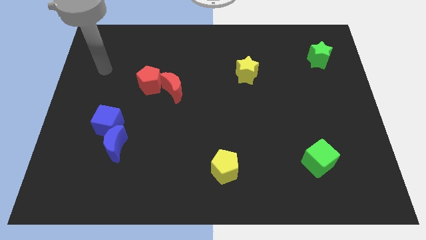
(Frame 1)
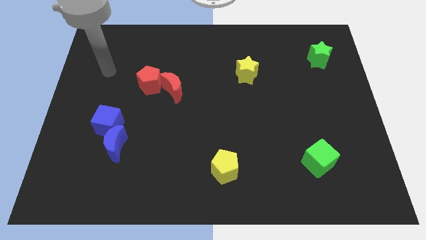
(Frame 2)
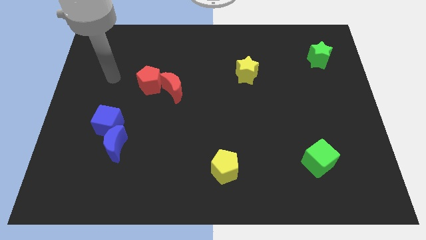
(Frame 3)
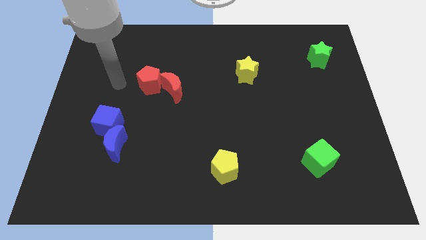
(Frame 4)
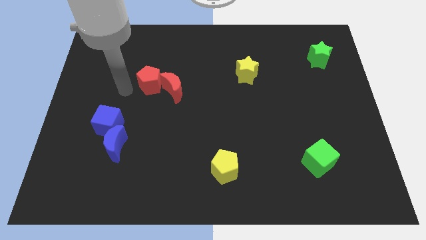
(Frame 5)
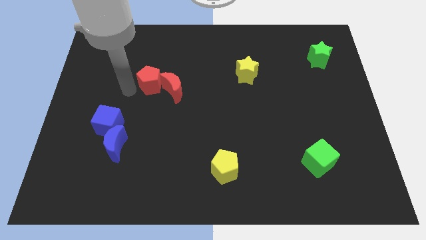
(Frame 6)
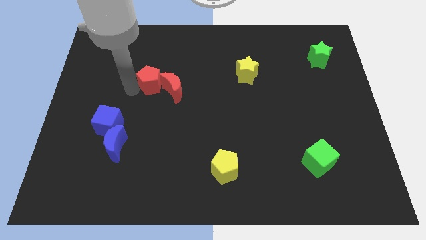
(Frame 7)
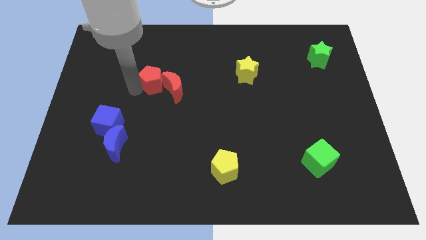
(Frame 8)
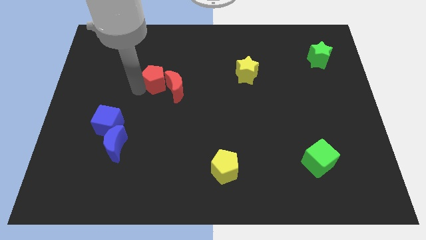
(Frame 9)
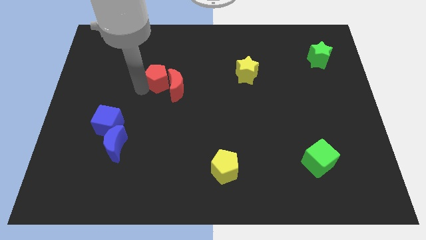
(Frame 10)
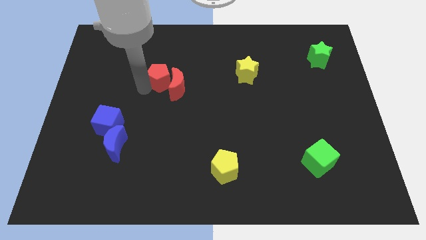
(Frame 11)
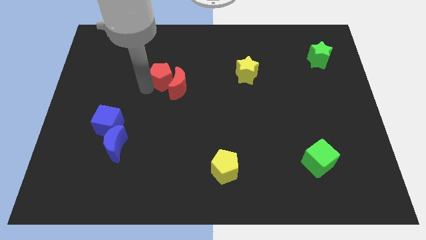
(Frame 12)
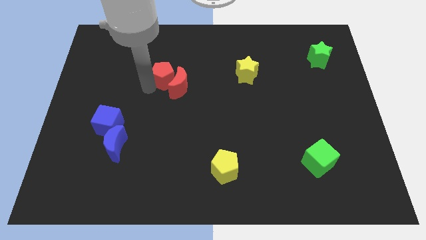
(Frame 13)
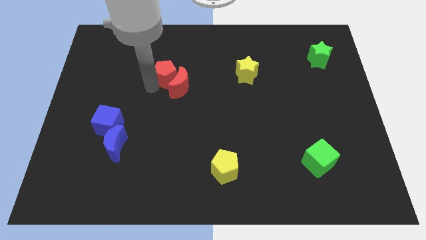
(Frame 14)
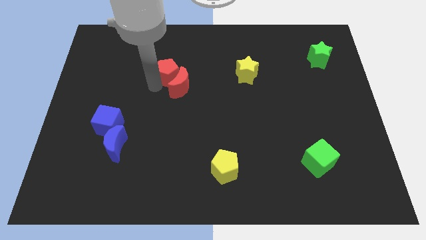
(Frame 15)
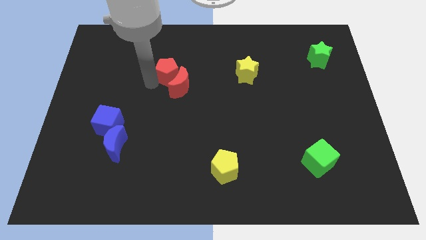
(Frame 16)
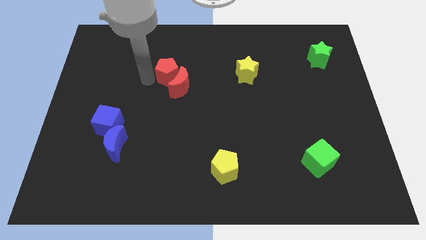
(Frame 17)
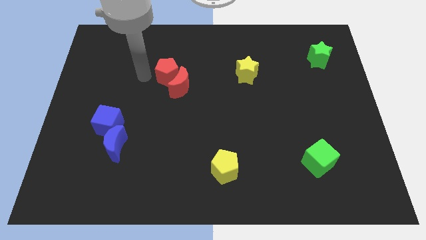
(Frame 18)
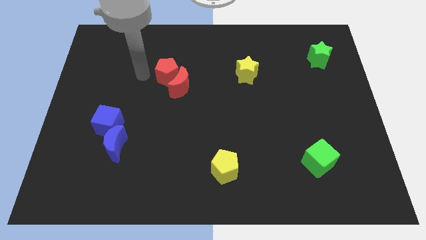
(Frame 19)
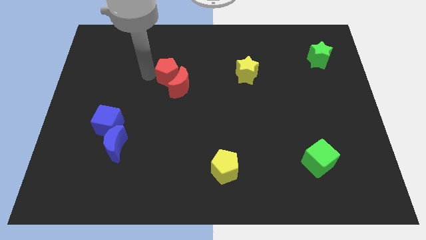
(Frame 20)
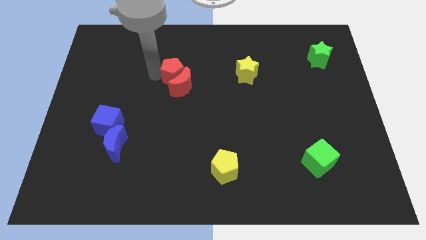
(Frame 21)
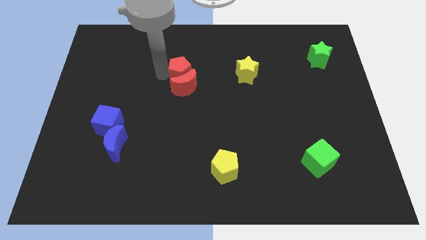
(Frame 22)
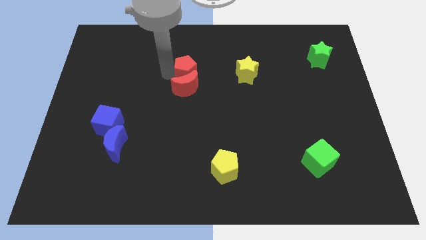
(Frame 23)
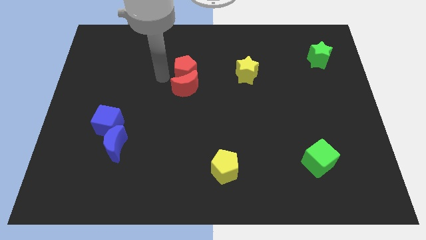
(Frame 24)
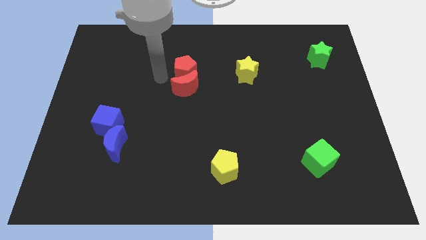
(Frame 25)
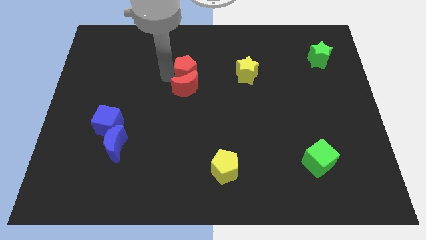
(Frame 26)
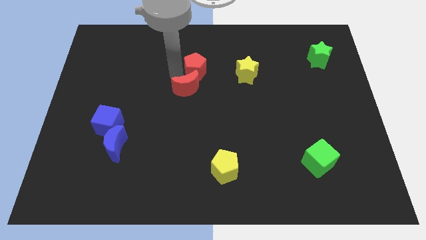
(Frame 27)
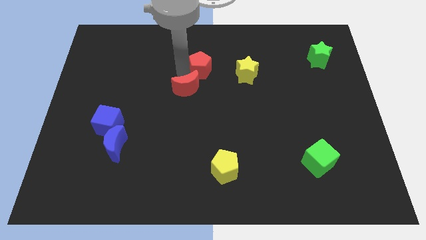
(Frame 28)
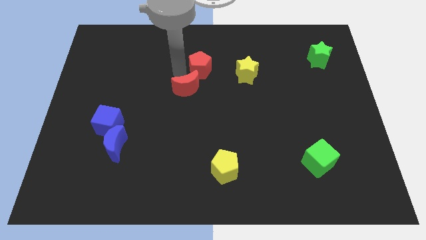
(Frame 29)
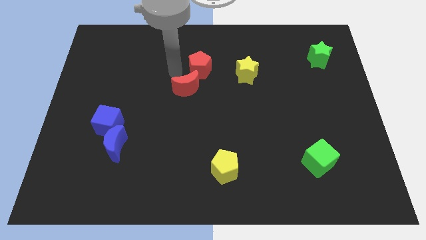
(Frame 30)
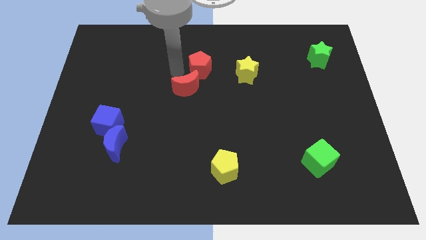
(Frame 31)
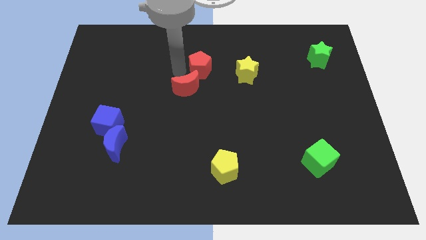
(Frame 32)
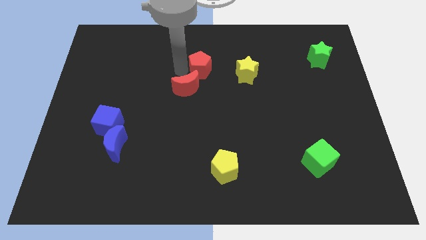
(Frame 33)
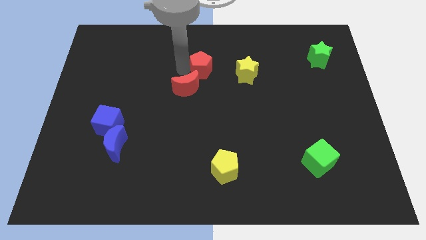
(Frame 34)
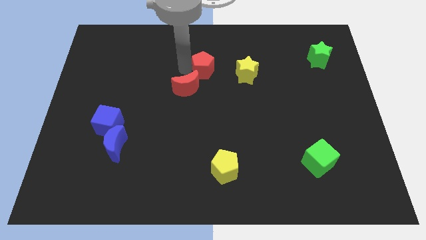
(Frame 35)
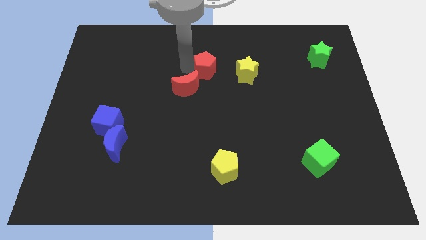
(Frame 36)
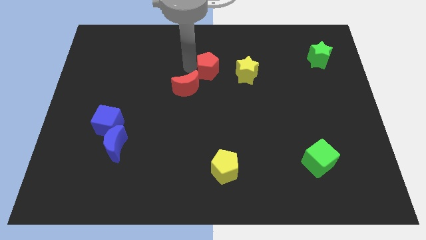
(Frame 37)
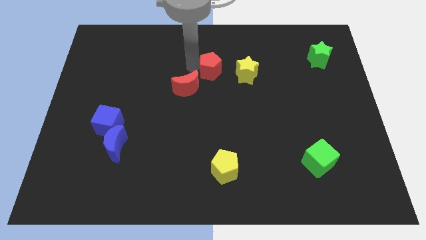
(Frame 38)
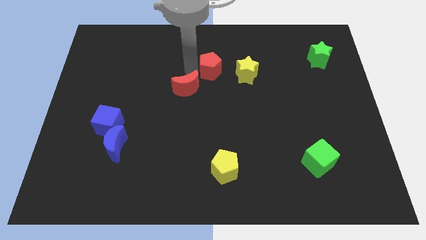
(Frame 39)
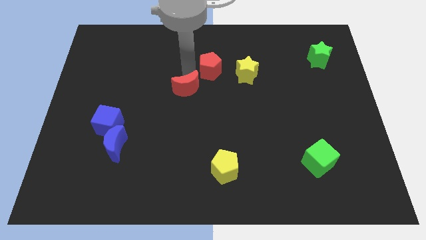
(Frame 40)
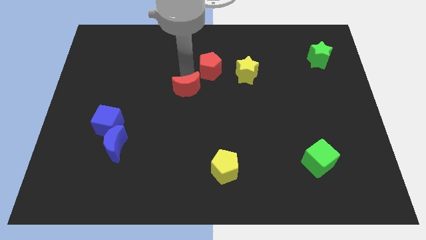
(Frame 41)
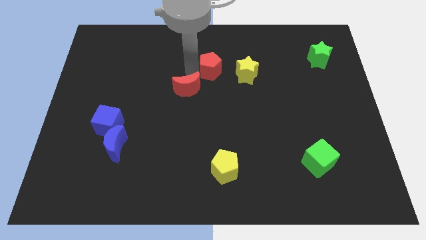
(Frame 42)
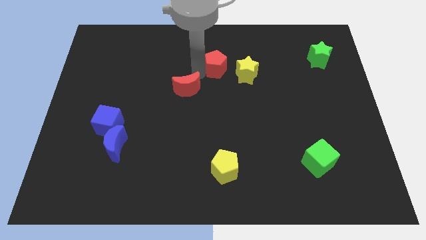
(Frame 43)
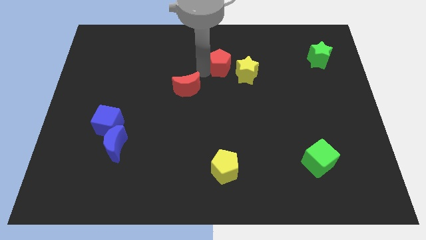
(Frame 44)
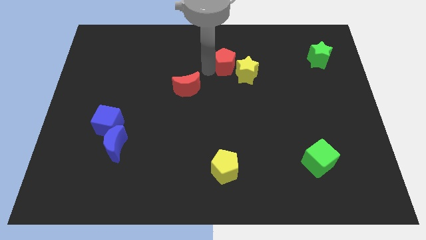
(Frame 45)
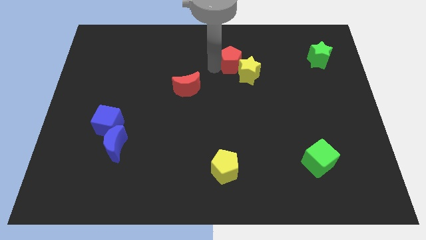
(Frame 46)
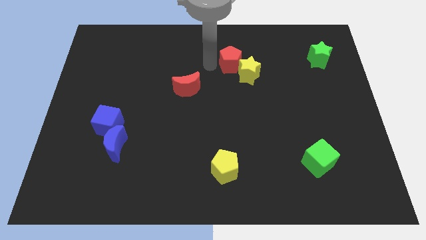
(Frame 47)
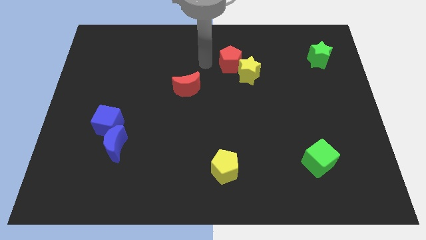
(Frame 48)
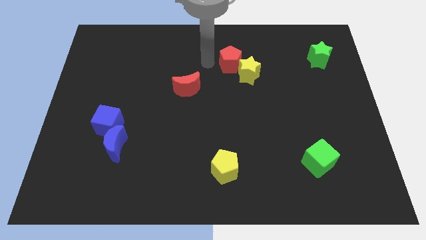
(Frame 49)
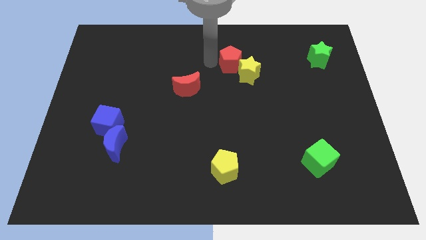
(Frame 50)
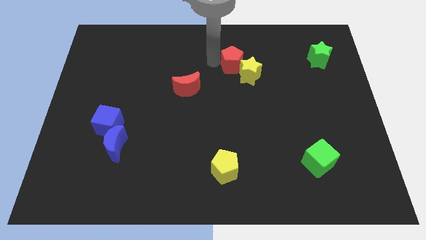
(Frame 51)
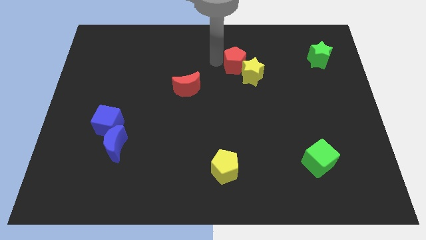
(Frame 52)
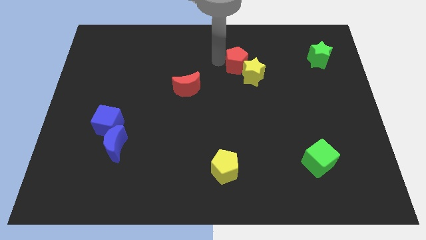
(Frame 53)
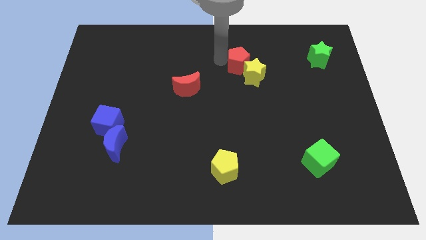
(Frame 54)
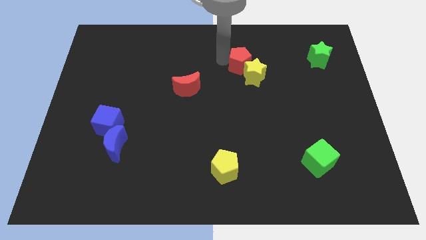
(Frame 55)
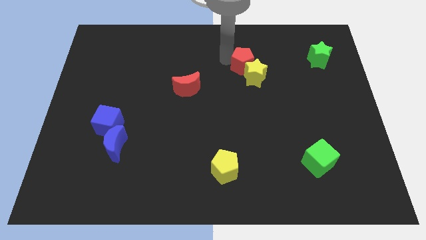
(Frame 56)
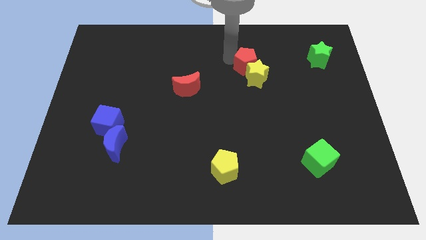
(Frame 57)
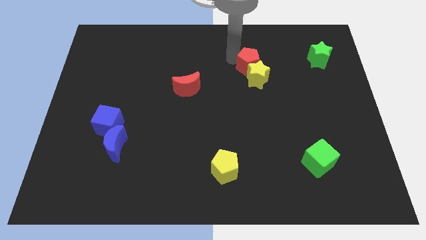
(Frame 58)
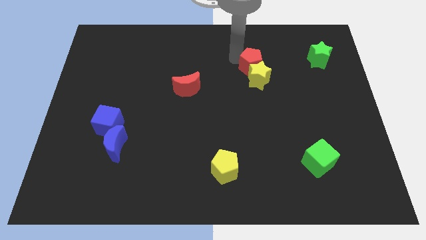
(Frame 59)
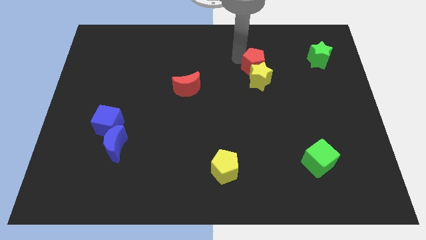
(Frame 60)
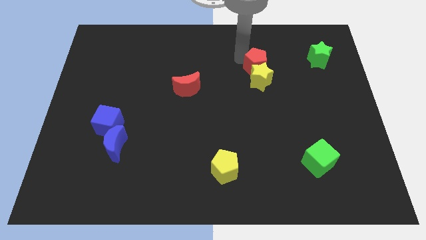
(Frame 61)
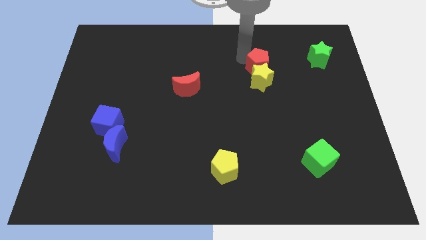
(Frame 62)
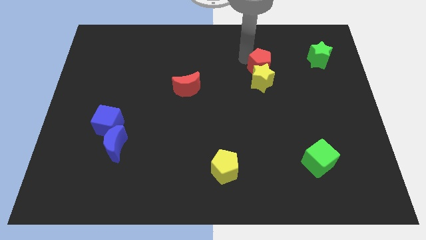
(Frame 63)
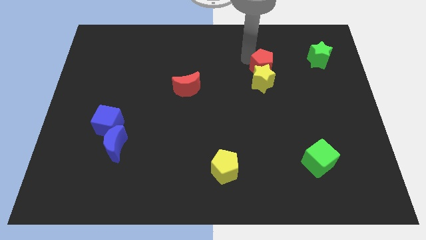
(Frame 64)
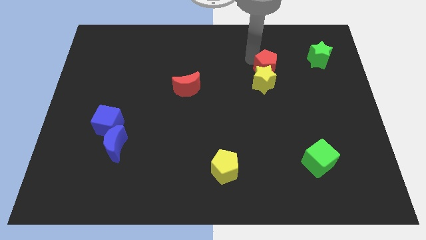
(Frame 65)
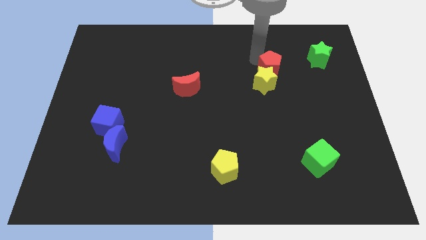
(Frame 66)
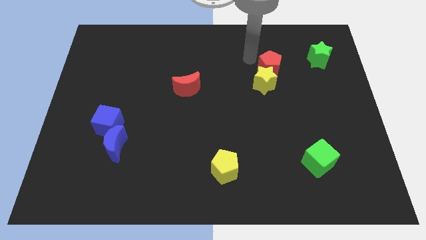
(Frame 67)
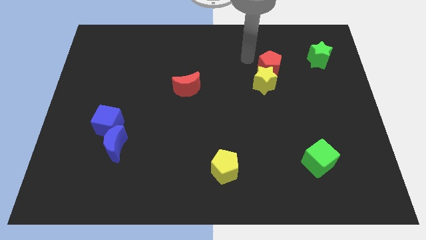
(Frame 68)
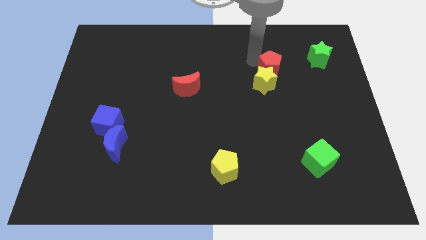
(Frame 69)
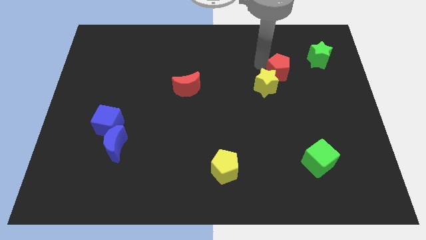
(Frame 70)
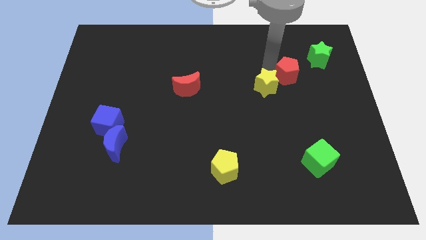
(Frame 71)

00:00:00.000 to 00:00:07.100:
move the red pentagon just right of the yellow star
